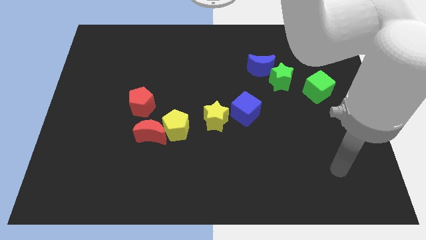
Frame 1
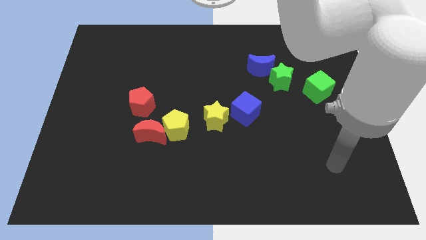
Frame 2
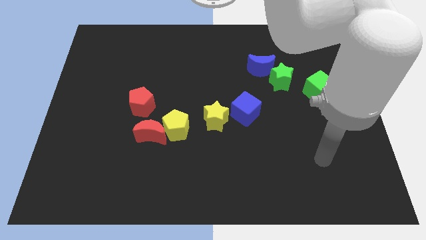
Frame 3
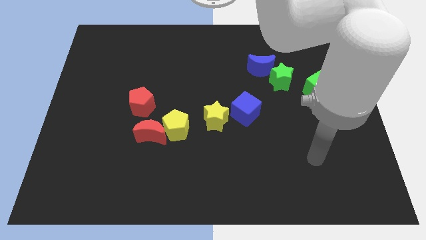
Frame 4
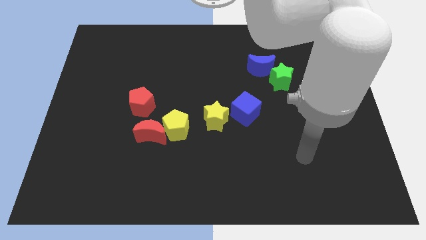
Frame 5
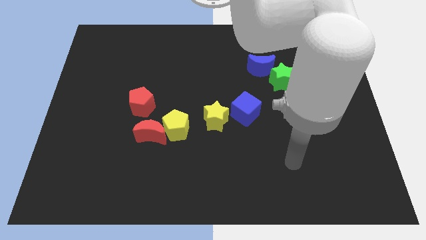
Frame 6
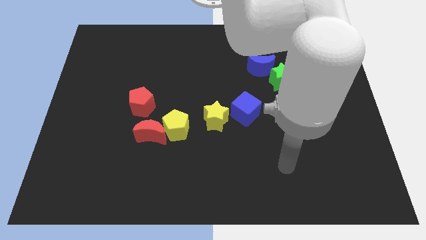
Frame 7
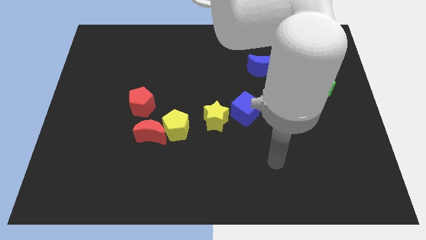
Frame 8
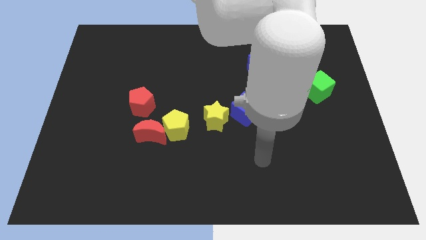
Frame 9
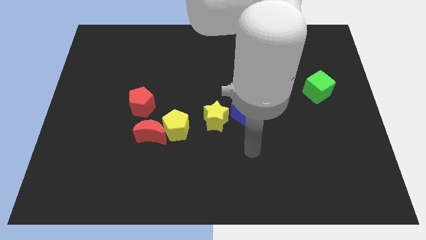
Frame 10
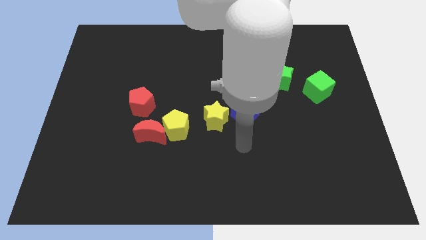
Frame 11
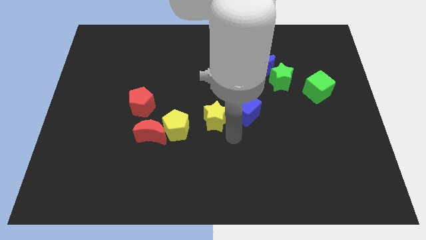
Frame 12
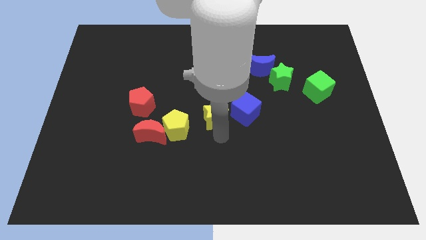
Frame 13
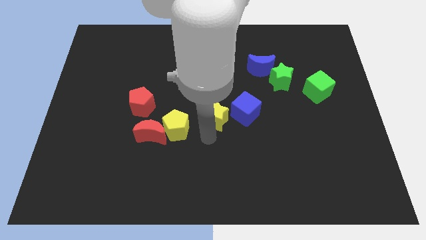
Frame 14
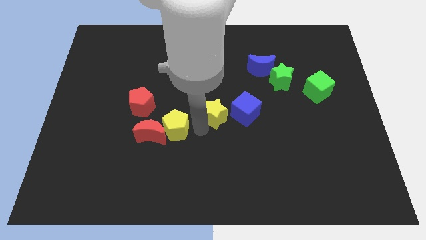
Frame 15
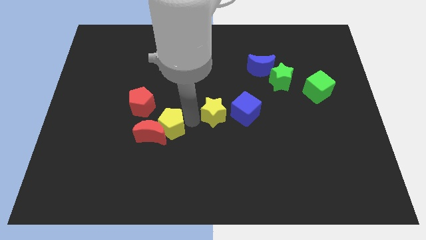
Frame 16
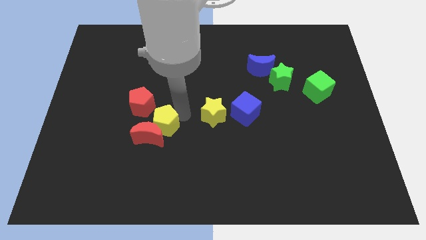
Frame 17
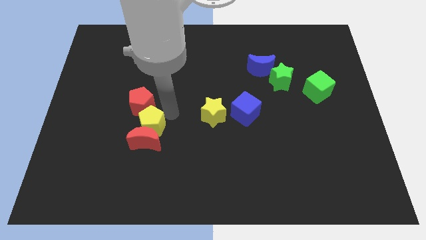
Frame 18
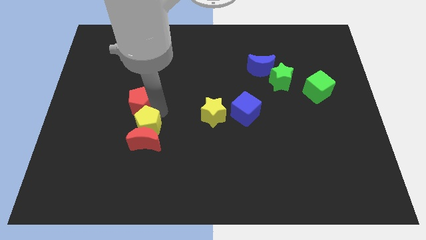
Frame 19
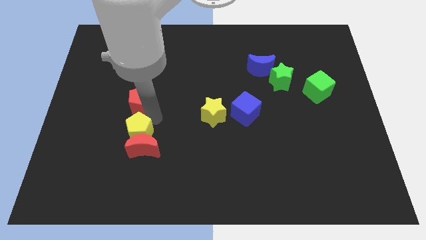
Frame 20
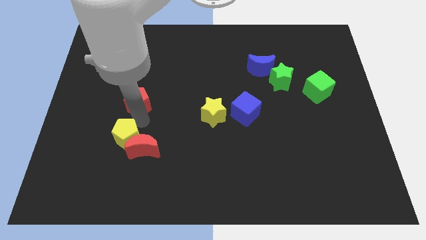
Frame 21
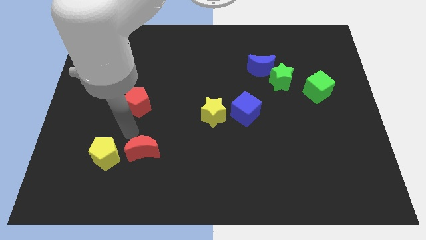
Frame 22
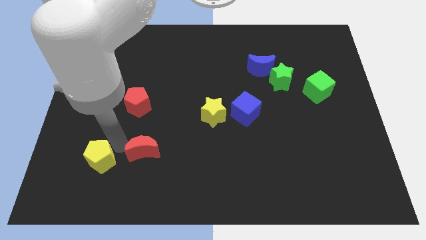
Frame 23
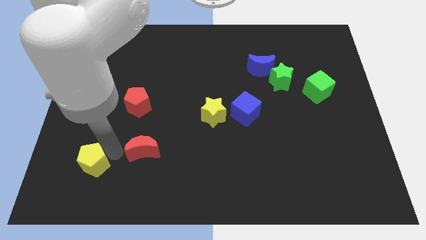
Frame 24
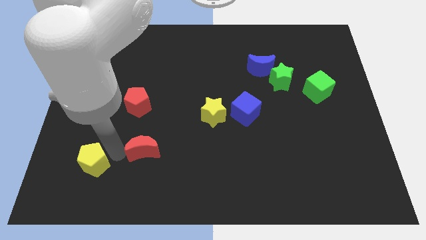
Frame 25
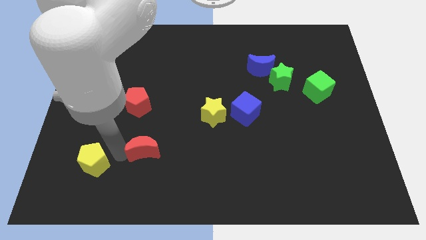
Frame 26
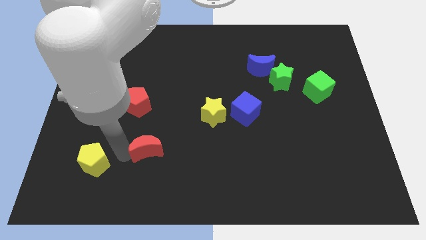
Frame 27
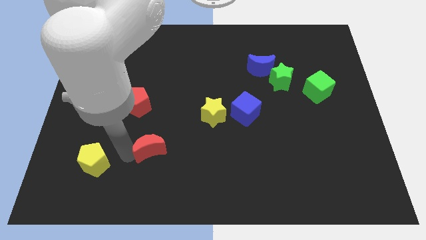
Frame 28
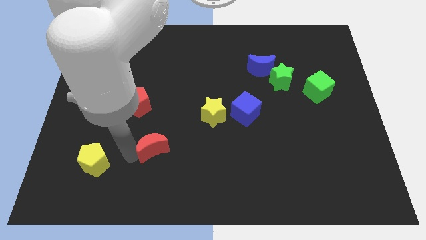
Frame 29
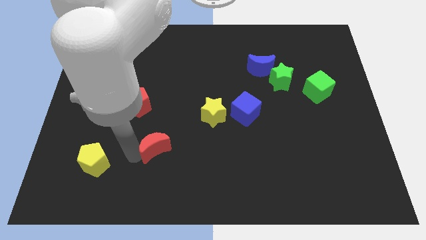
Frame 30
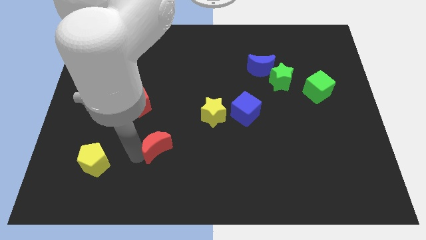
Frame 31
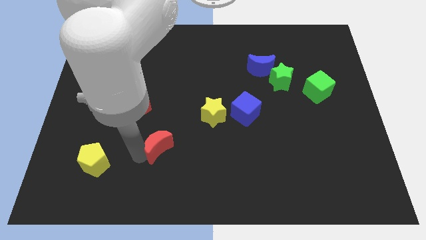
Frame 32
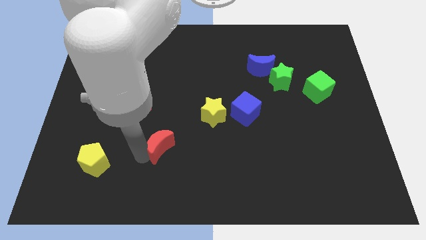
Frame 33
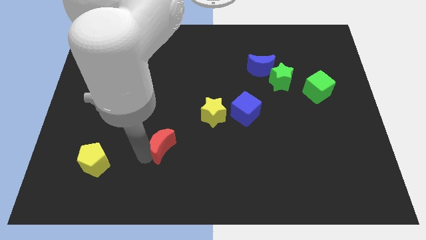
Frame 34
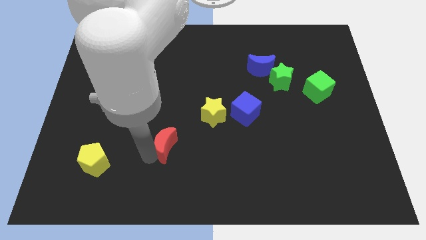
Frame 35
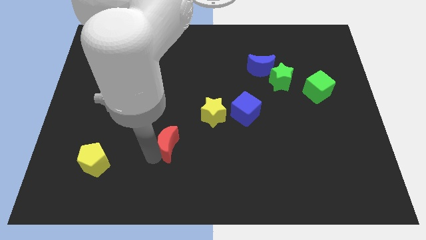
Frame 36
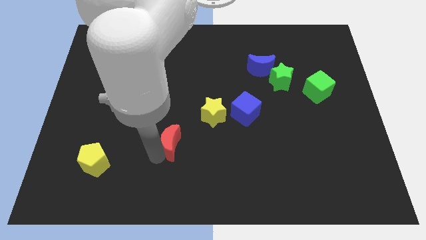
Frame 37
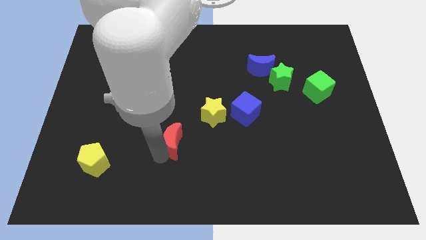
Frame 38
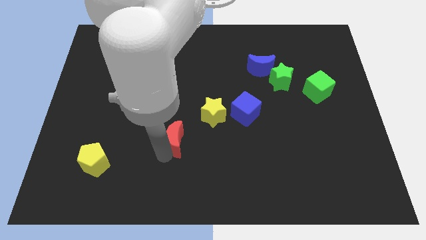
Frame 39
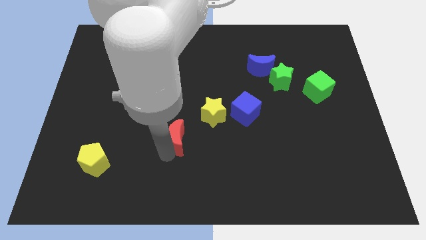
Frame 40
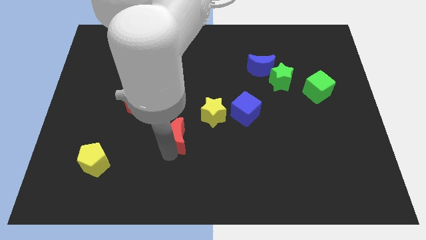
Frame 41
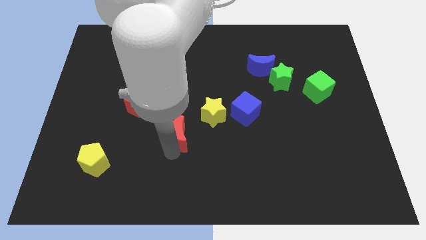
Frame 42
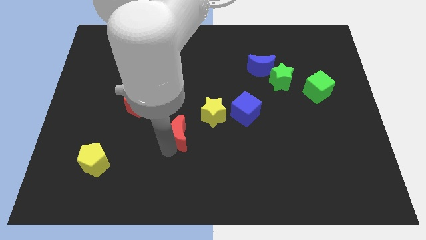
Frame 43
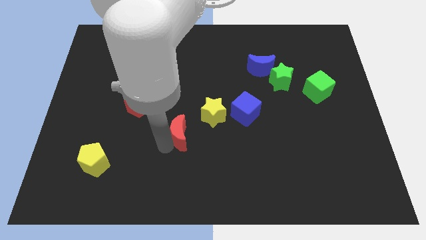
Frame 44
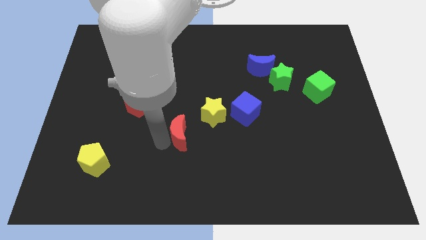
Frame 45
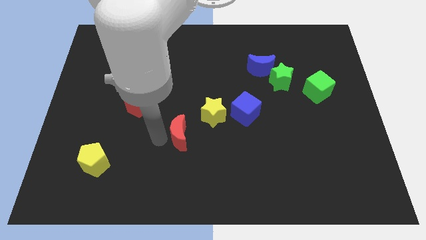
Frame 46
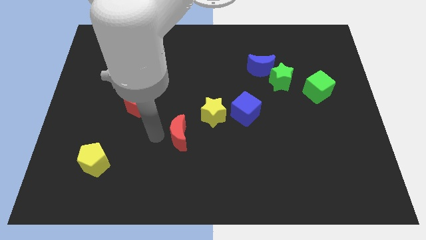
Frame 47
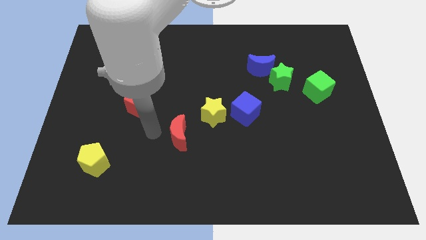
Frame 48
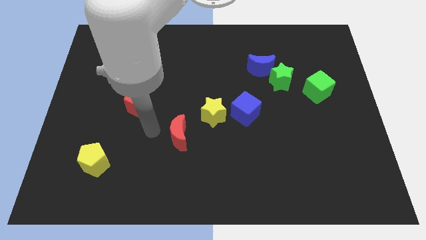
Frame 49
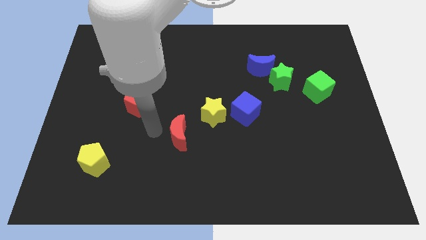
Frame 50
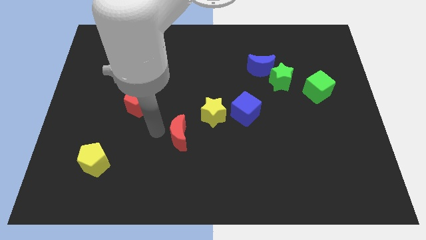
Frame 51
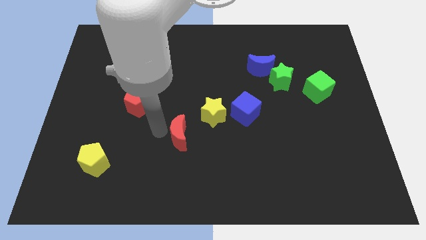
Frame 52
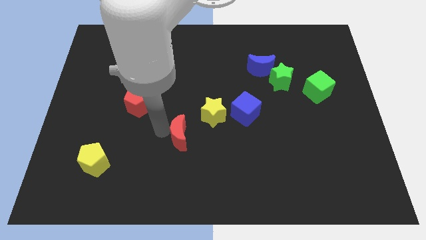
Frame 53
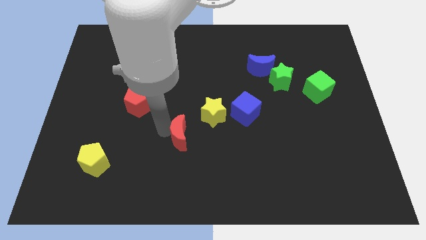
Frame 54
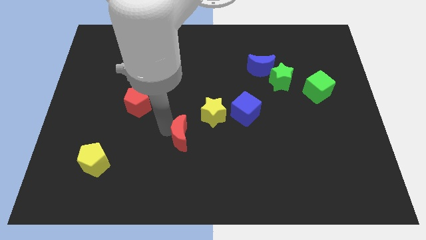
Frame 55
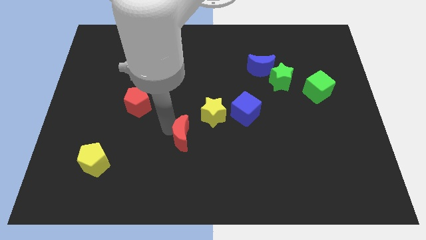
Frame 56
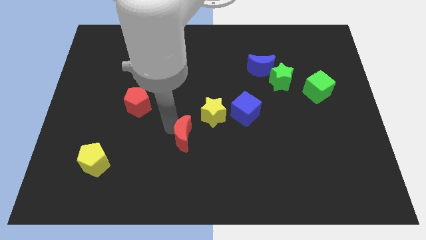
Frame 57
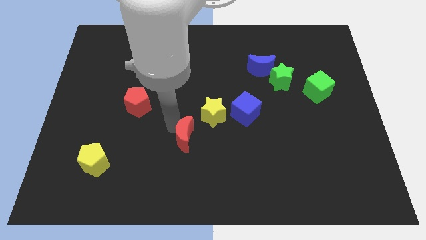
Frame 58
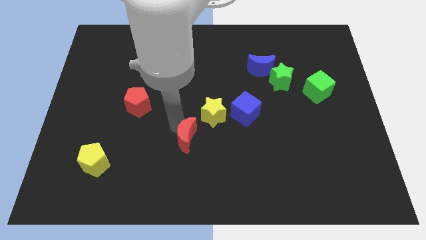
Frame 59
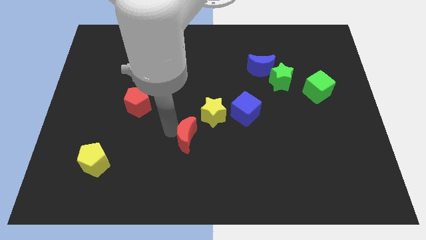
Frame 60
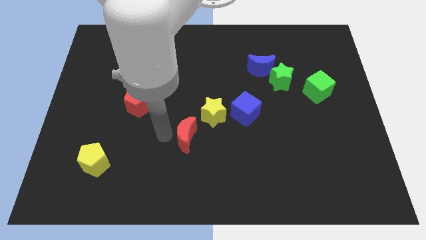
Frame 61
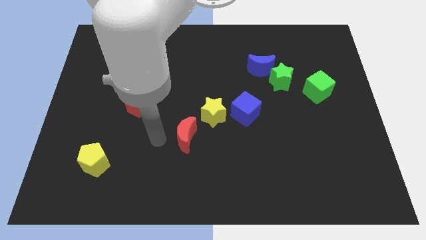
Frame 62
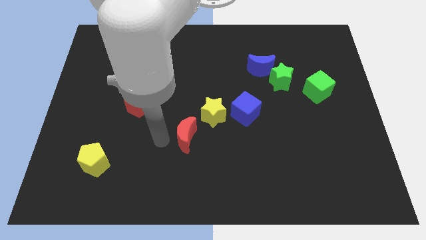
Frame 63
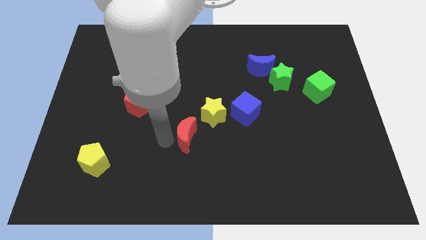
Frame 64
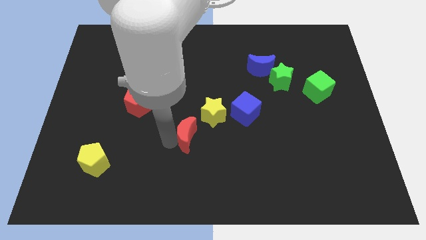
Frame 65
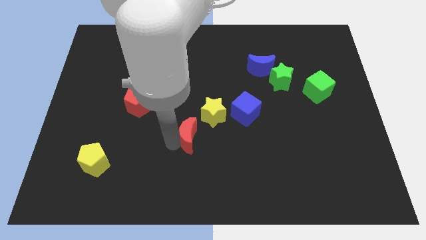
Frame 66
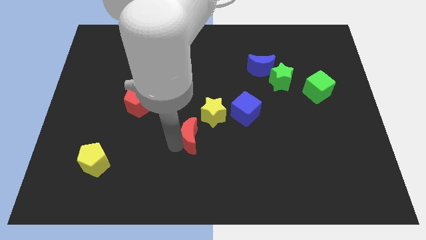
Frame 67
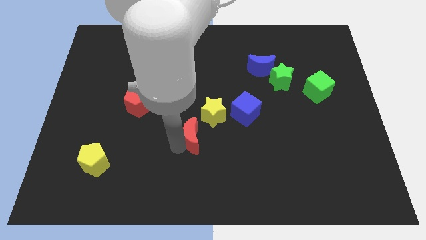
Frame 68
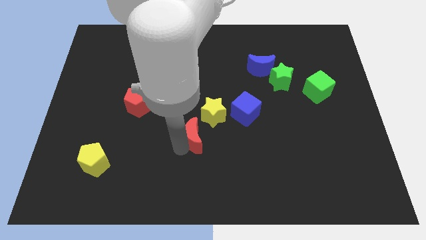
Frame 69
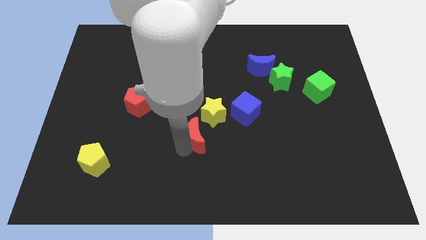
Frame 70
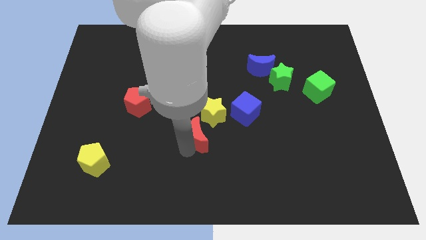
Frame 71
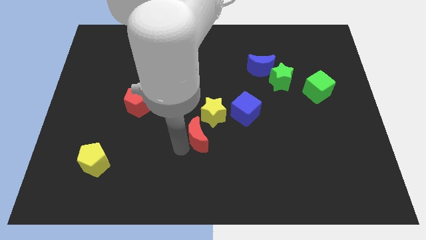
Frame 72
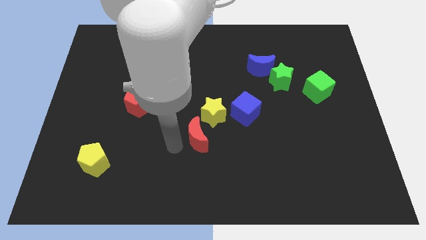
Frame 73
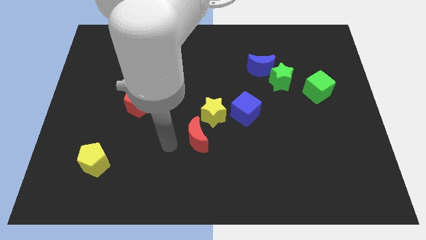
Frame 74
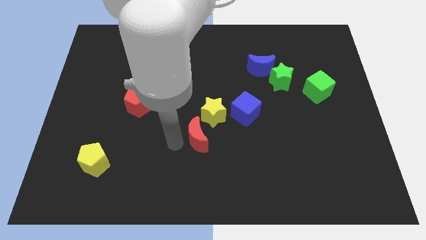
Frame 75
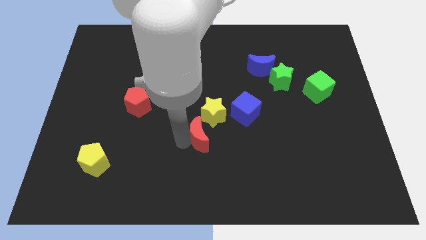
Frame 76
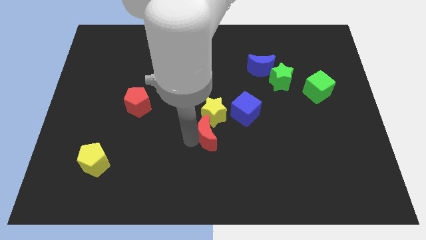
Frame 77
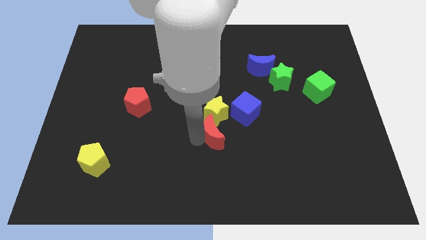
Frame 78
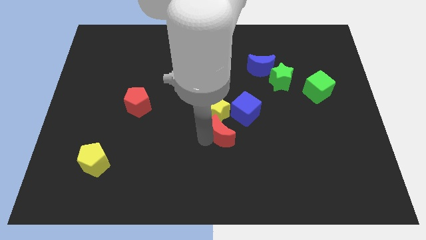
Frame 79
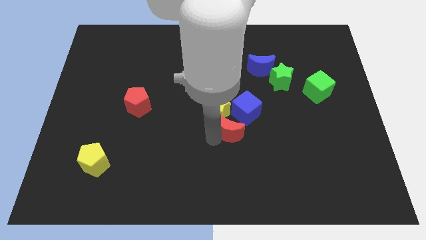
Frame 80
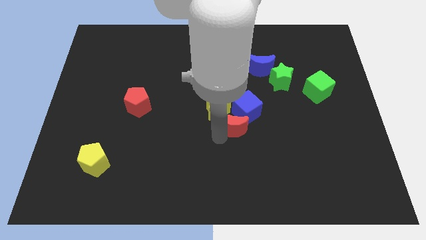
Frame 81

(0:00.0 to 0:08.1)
slide the red moon to the blue cube

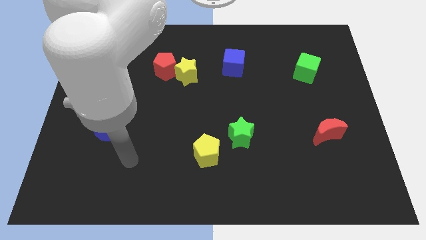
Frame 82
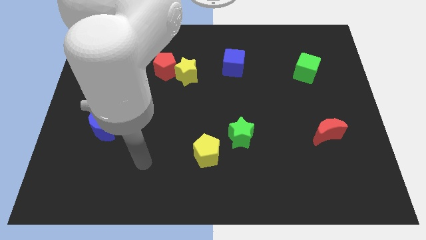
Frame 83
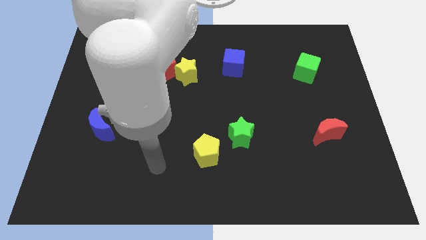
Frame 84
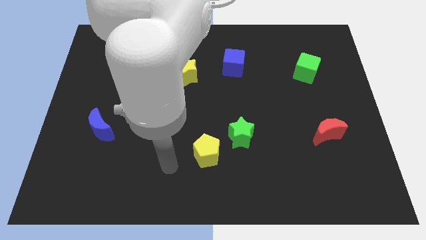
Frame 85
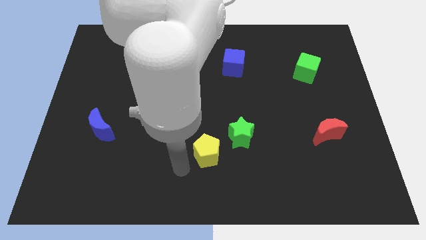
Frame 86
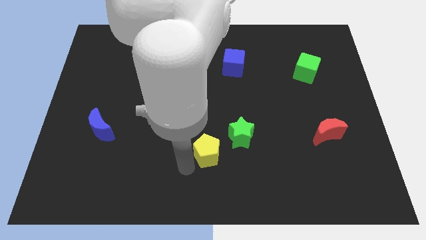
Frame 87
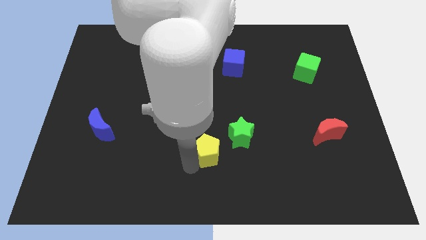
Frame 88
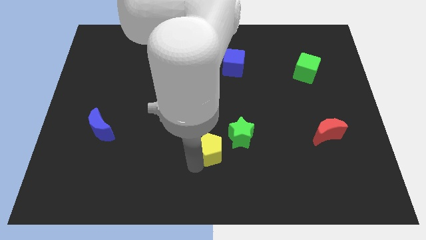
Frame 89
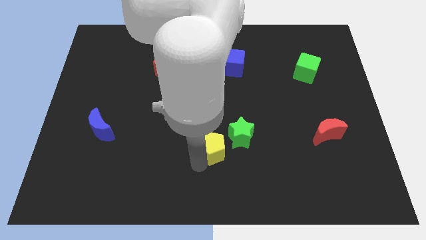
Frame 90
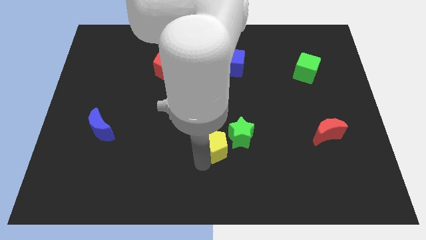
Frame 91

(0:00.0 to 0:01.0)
put the yellow pentagon towards the green star
